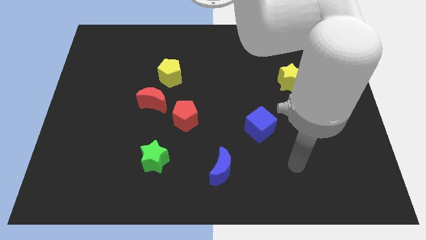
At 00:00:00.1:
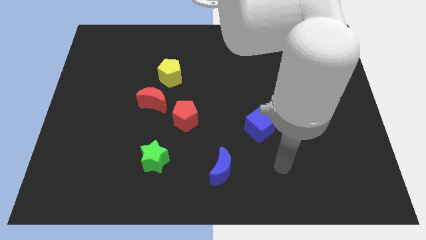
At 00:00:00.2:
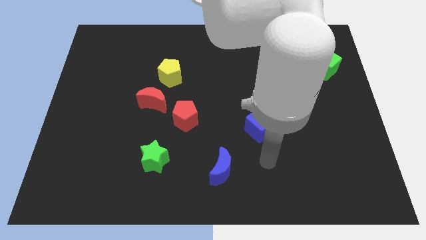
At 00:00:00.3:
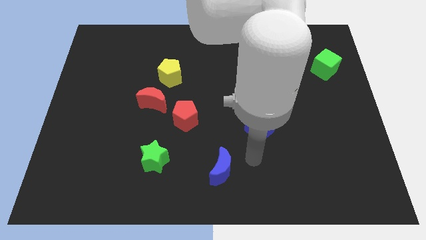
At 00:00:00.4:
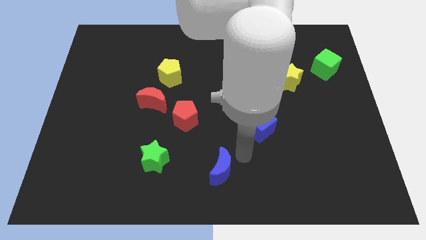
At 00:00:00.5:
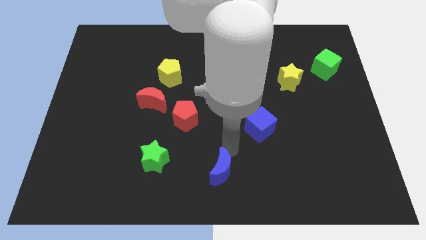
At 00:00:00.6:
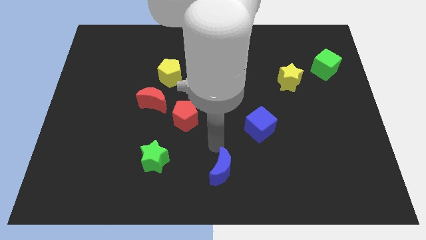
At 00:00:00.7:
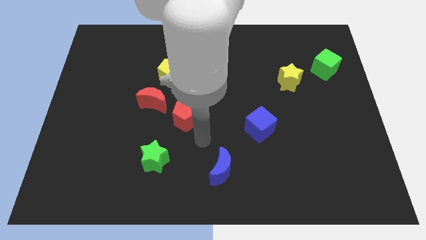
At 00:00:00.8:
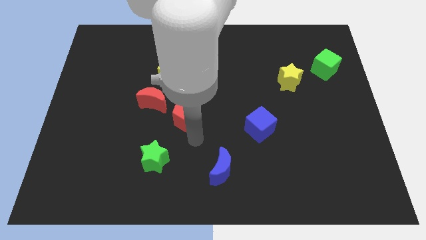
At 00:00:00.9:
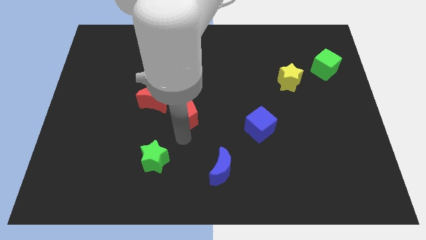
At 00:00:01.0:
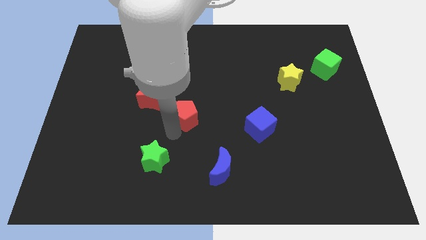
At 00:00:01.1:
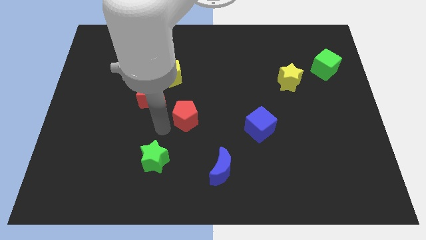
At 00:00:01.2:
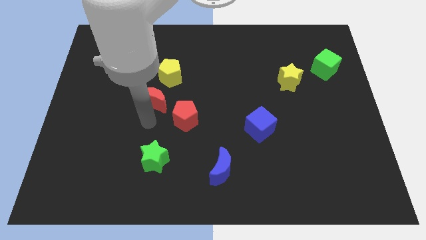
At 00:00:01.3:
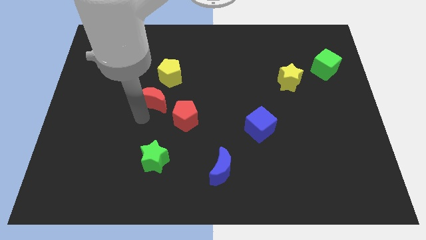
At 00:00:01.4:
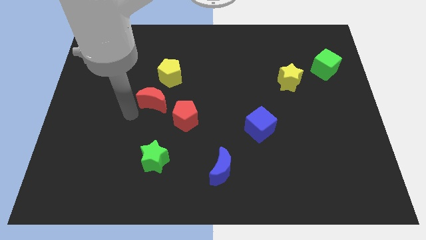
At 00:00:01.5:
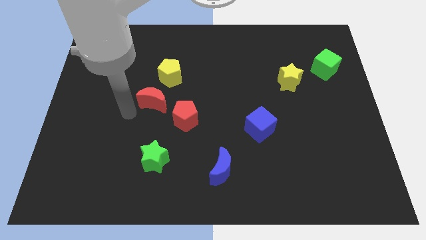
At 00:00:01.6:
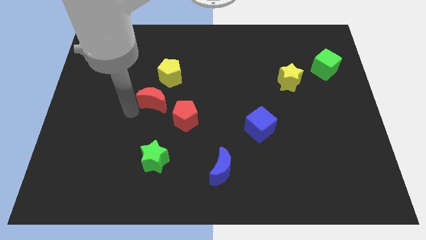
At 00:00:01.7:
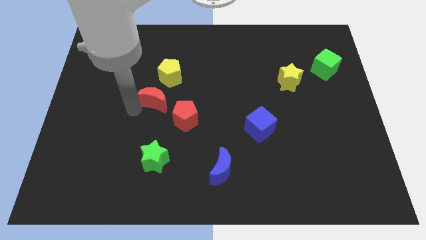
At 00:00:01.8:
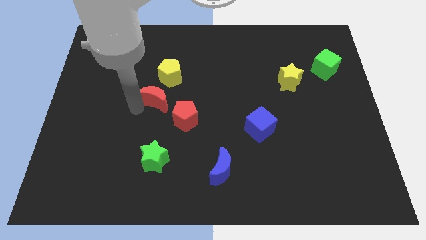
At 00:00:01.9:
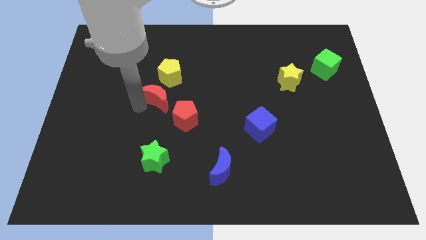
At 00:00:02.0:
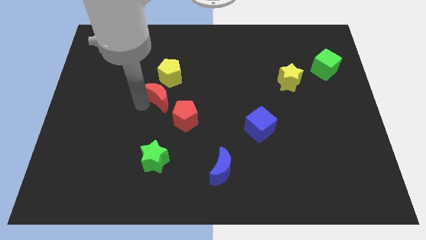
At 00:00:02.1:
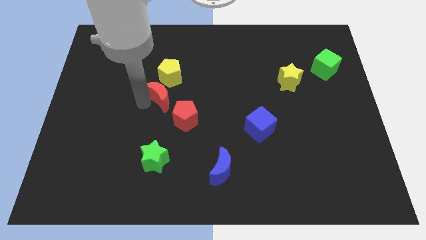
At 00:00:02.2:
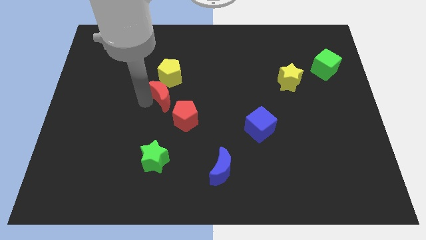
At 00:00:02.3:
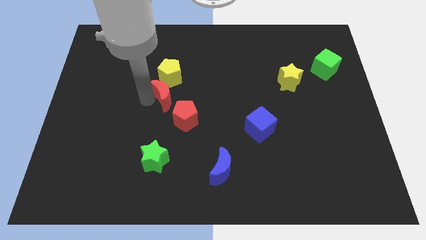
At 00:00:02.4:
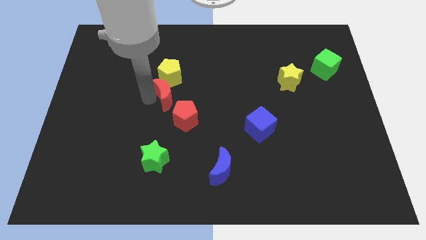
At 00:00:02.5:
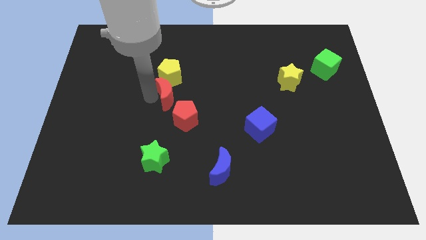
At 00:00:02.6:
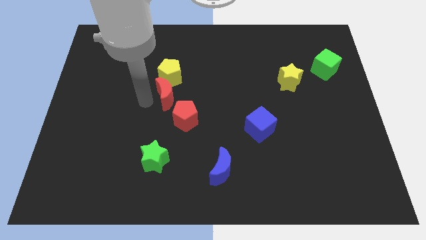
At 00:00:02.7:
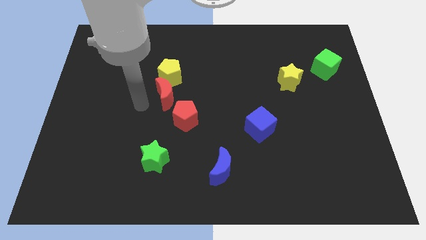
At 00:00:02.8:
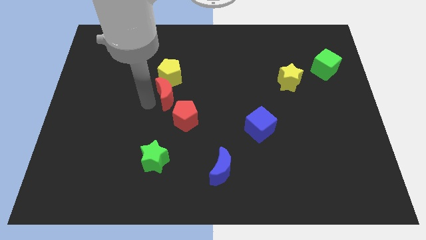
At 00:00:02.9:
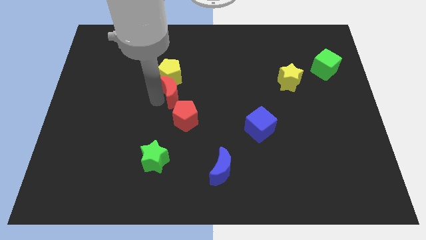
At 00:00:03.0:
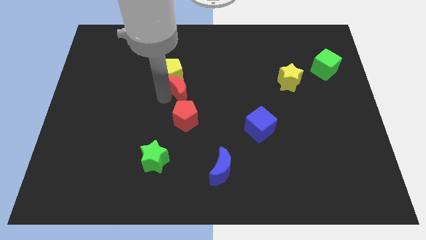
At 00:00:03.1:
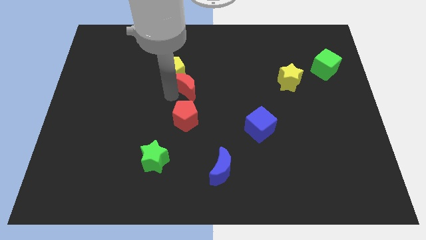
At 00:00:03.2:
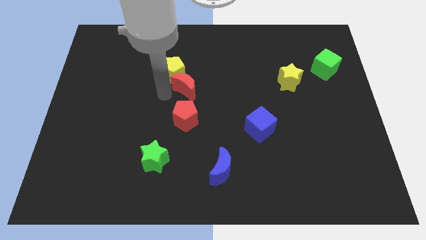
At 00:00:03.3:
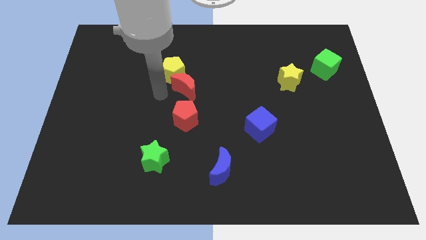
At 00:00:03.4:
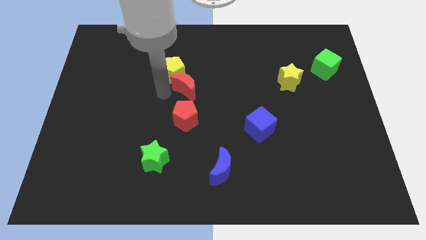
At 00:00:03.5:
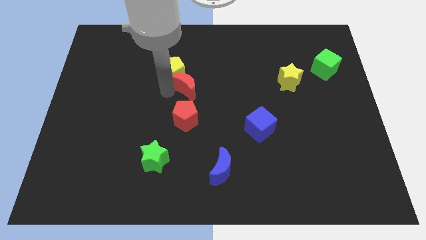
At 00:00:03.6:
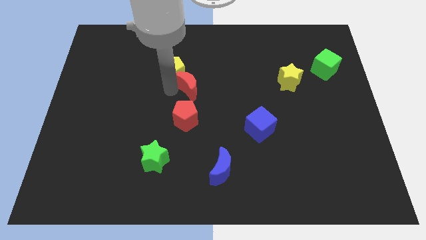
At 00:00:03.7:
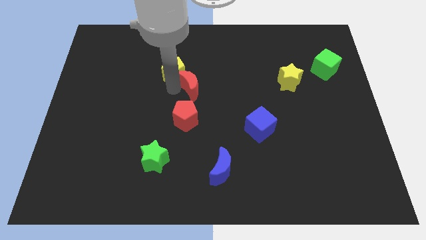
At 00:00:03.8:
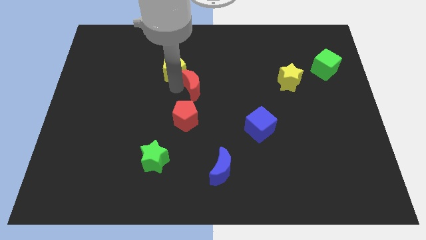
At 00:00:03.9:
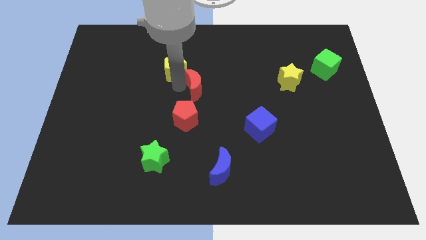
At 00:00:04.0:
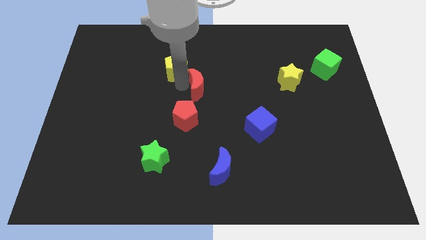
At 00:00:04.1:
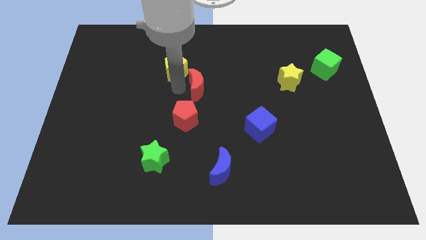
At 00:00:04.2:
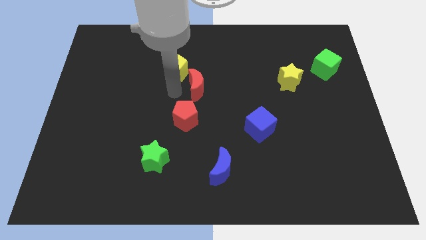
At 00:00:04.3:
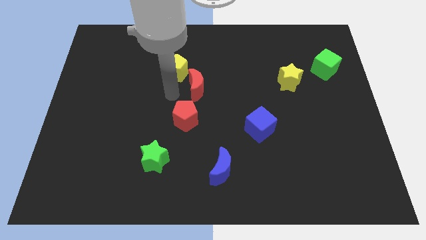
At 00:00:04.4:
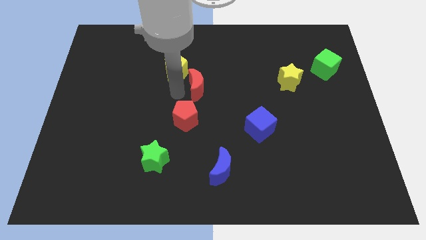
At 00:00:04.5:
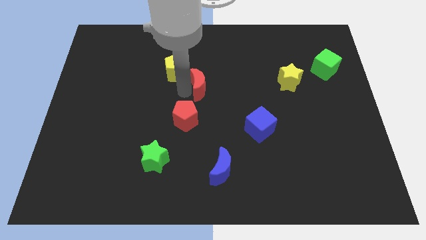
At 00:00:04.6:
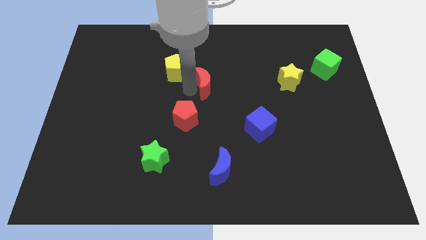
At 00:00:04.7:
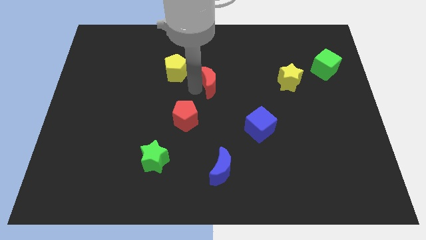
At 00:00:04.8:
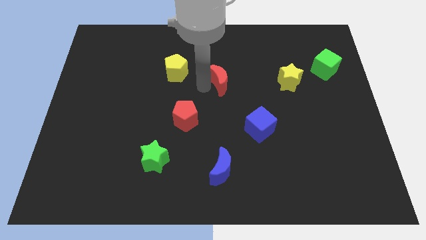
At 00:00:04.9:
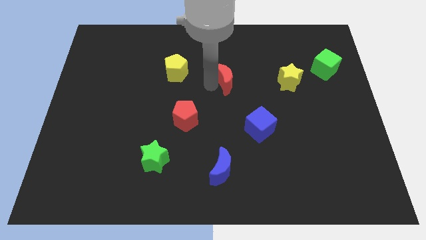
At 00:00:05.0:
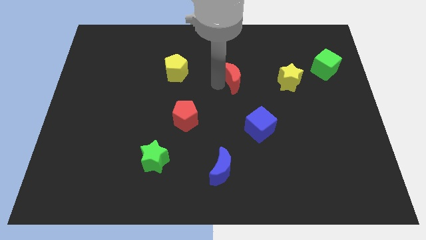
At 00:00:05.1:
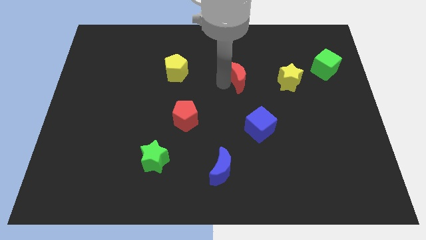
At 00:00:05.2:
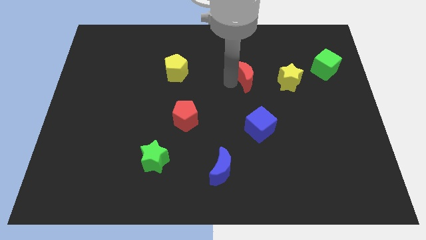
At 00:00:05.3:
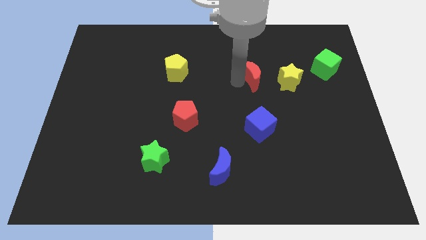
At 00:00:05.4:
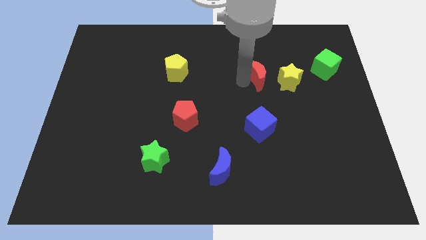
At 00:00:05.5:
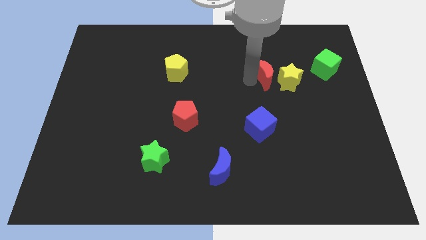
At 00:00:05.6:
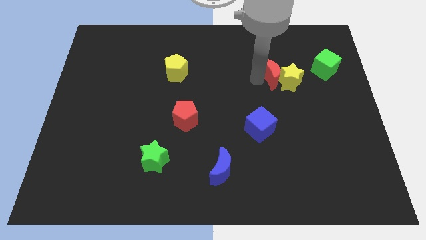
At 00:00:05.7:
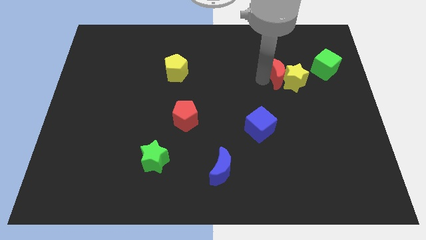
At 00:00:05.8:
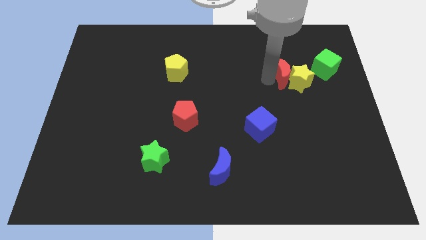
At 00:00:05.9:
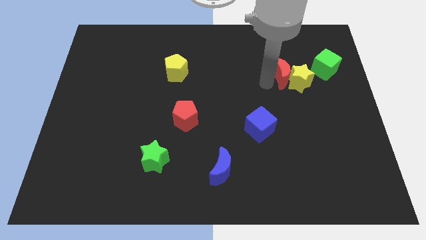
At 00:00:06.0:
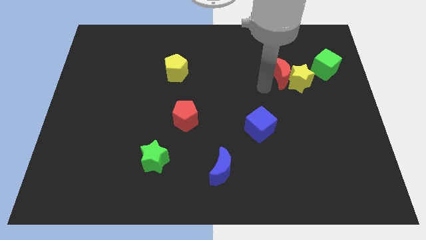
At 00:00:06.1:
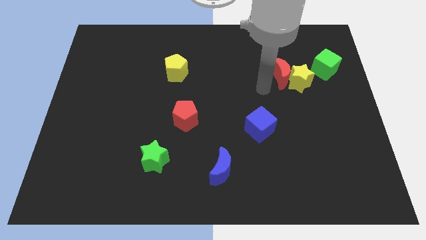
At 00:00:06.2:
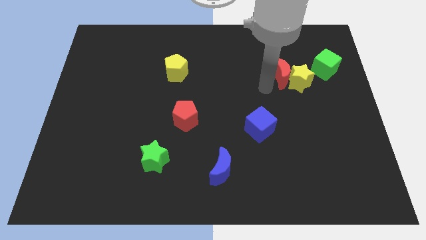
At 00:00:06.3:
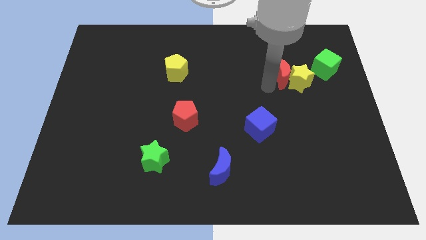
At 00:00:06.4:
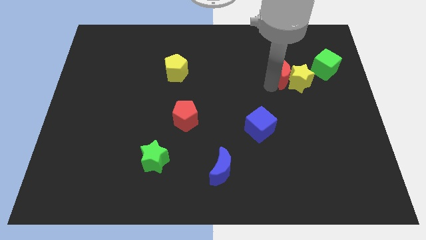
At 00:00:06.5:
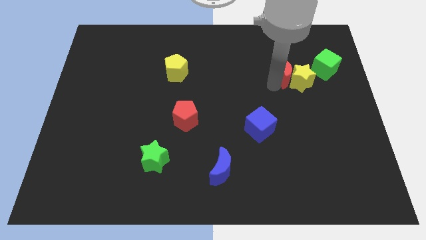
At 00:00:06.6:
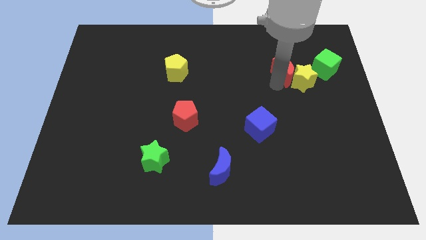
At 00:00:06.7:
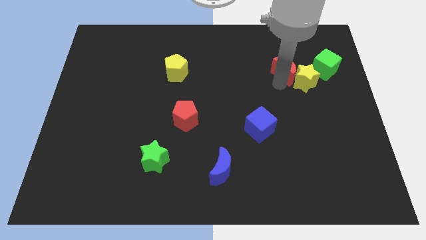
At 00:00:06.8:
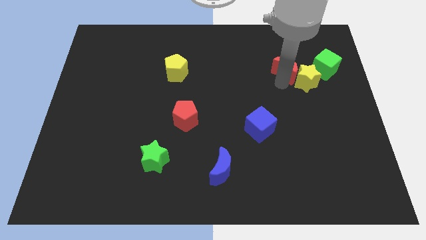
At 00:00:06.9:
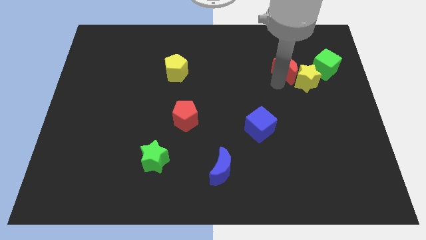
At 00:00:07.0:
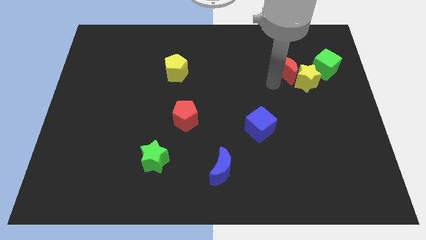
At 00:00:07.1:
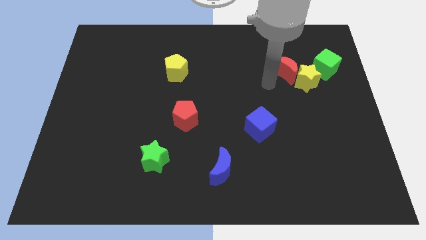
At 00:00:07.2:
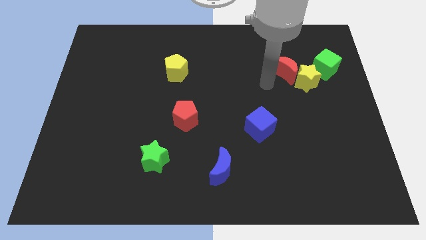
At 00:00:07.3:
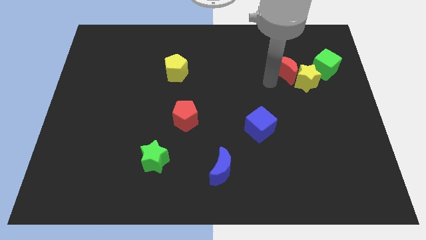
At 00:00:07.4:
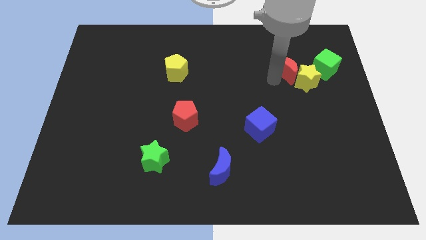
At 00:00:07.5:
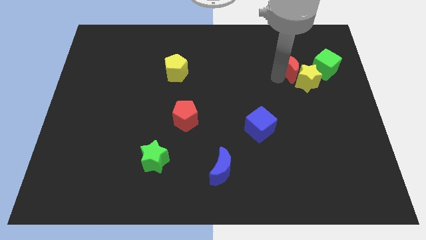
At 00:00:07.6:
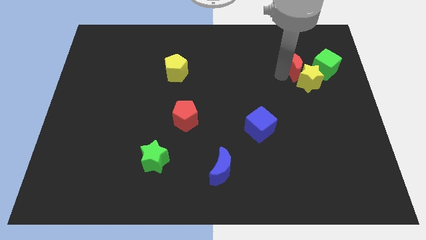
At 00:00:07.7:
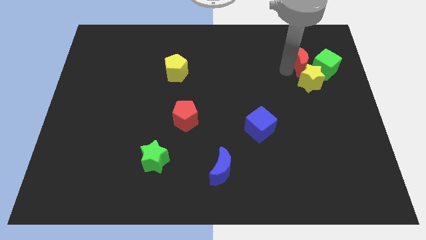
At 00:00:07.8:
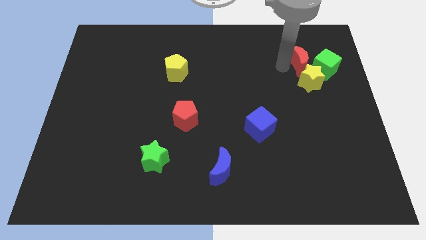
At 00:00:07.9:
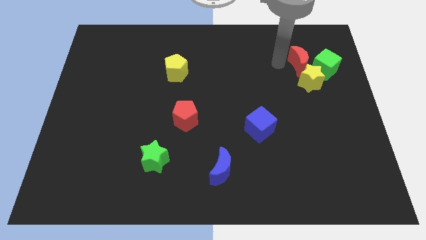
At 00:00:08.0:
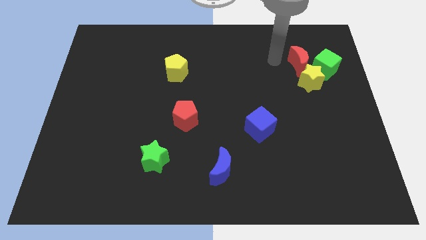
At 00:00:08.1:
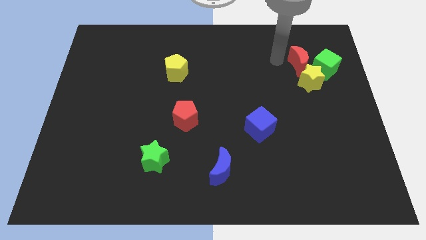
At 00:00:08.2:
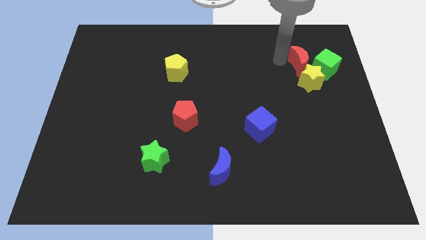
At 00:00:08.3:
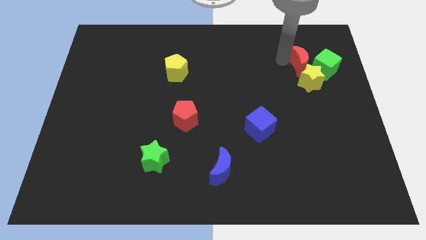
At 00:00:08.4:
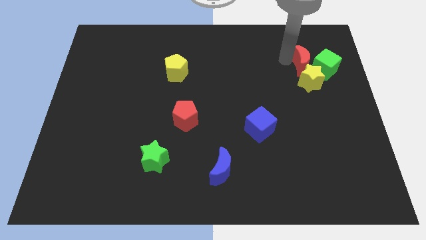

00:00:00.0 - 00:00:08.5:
push the red moon close to the green cube
